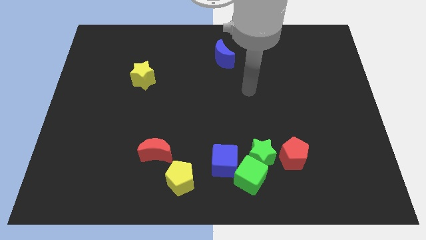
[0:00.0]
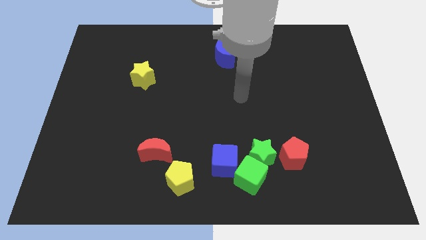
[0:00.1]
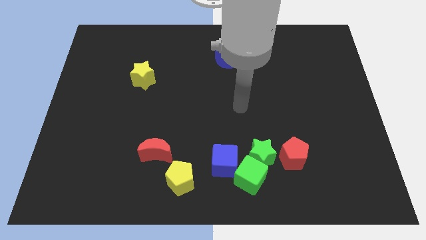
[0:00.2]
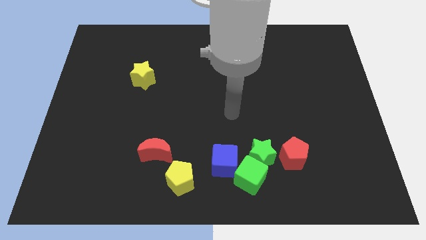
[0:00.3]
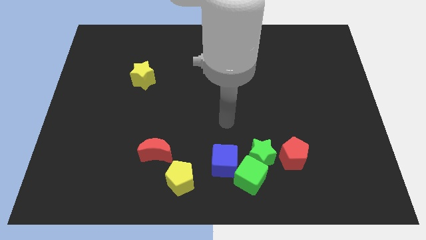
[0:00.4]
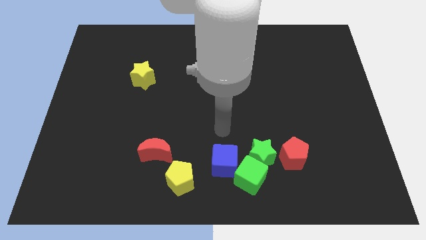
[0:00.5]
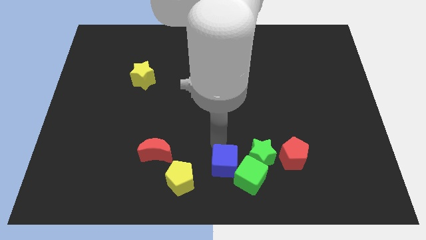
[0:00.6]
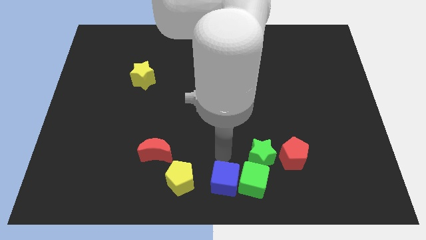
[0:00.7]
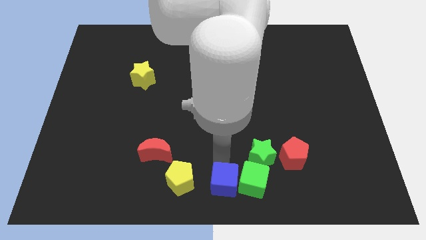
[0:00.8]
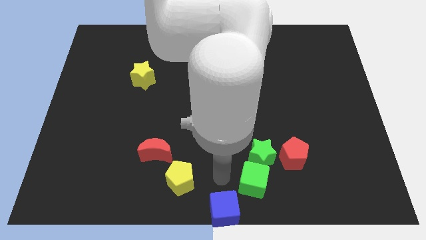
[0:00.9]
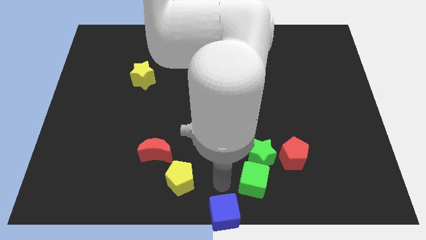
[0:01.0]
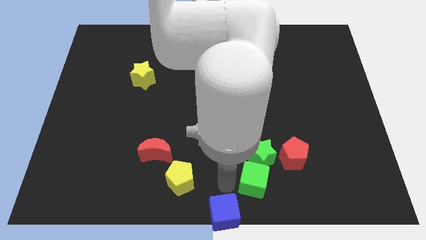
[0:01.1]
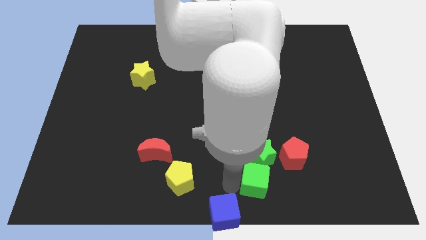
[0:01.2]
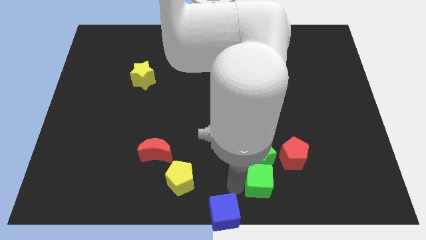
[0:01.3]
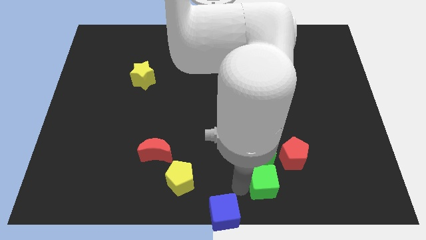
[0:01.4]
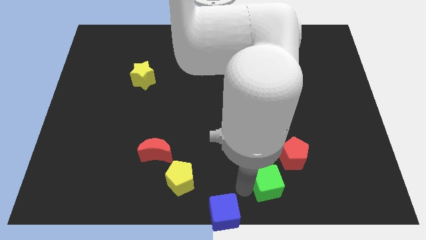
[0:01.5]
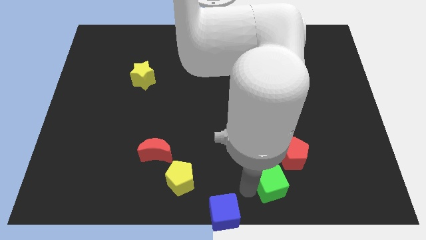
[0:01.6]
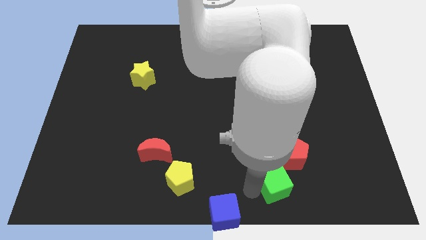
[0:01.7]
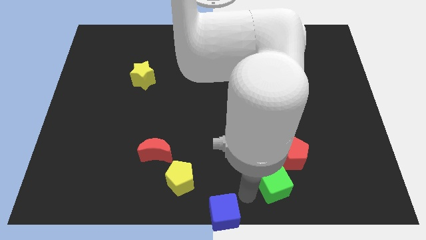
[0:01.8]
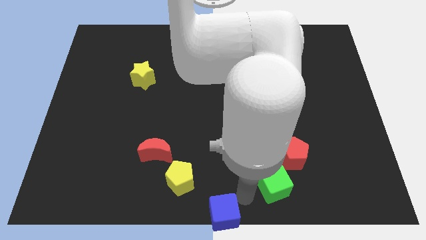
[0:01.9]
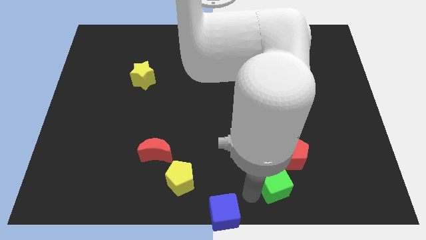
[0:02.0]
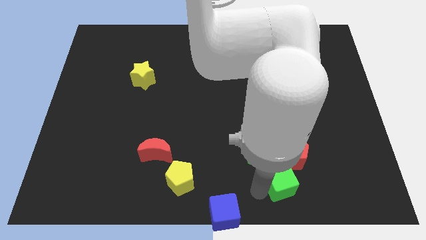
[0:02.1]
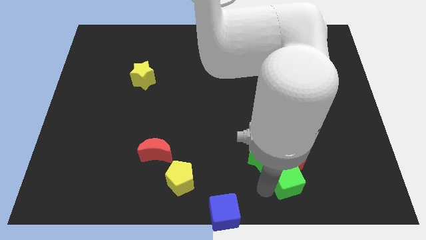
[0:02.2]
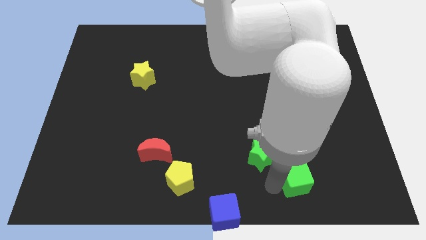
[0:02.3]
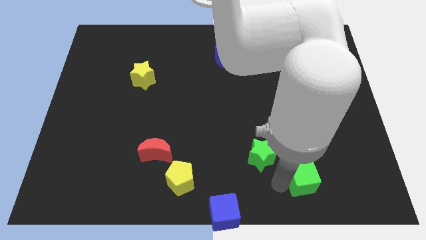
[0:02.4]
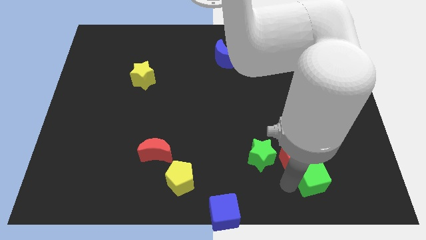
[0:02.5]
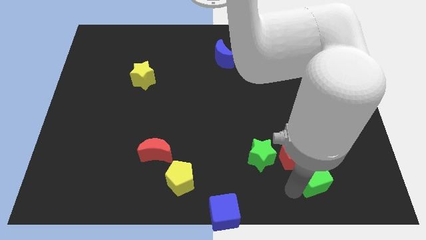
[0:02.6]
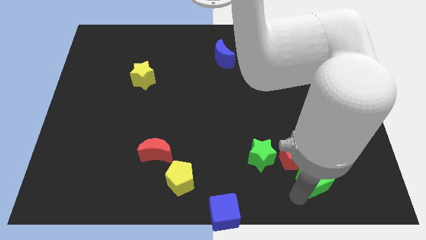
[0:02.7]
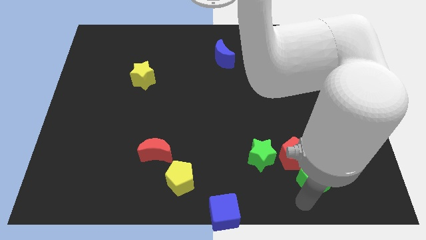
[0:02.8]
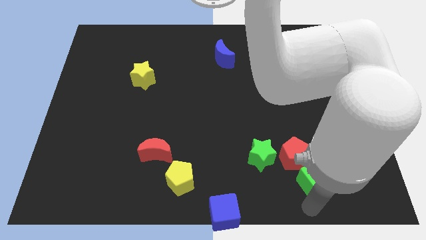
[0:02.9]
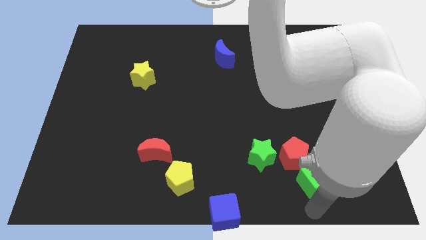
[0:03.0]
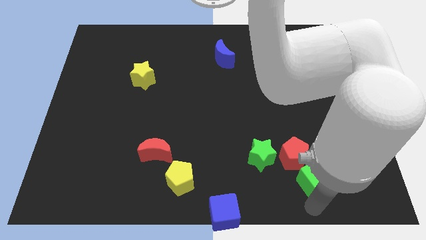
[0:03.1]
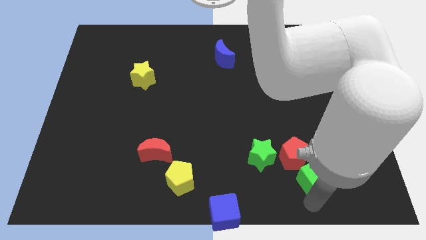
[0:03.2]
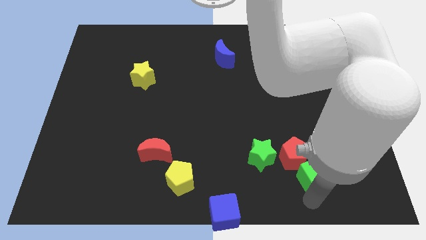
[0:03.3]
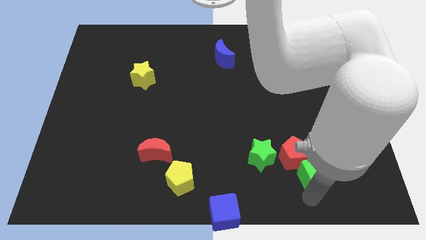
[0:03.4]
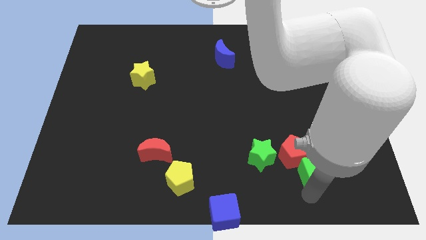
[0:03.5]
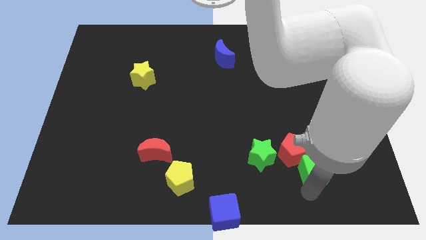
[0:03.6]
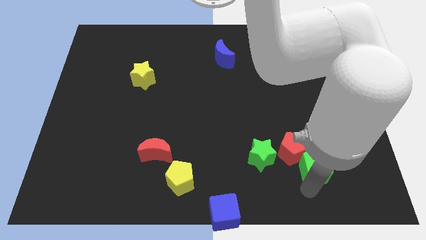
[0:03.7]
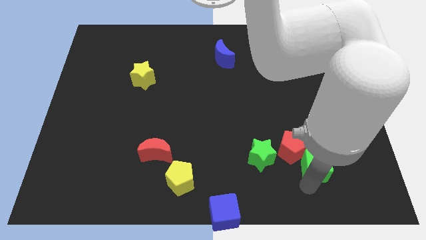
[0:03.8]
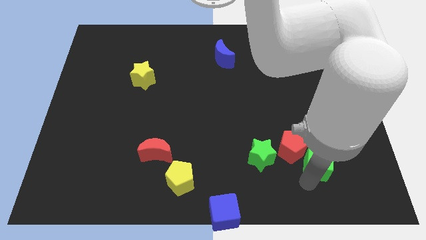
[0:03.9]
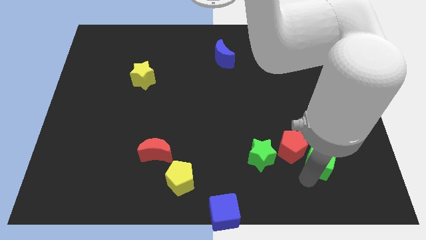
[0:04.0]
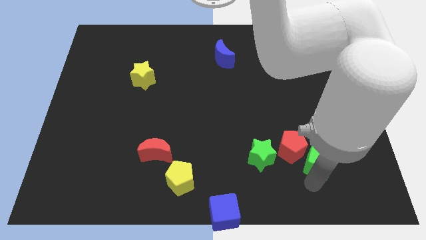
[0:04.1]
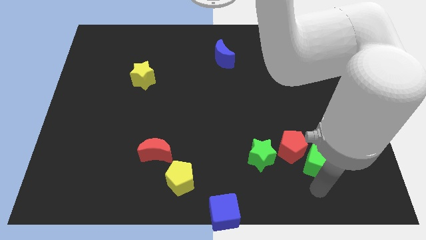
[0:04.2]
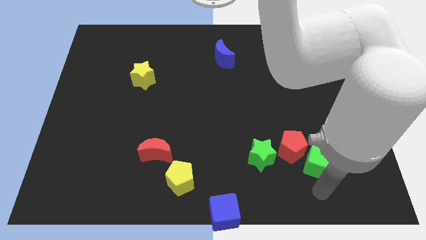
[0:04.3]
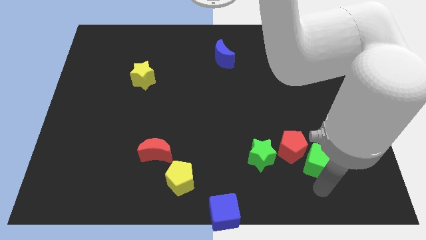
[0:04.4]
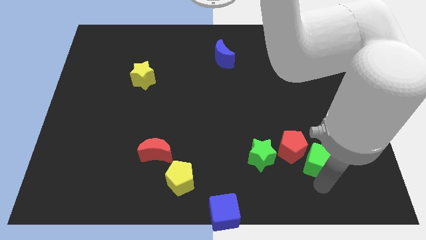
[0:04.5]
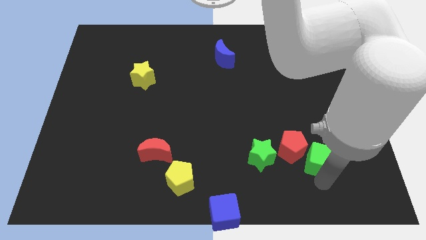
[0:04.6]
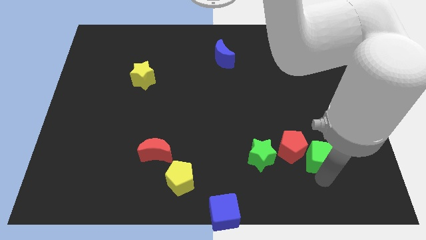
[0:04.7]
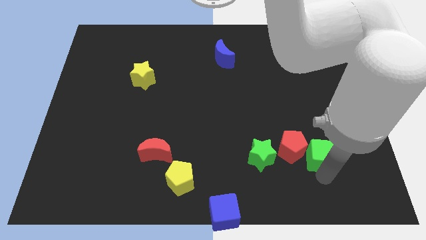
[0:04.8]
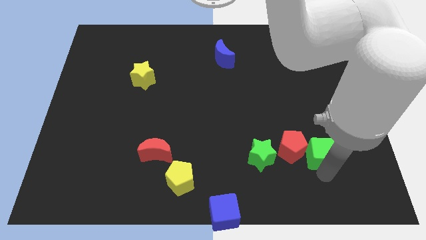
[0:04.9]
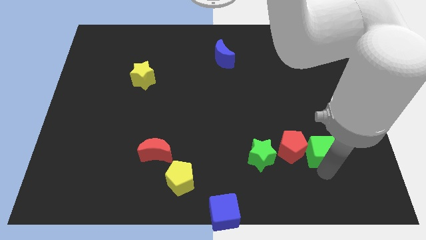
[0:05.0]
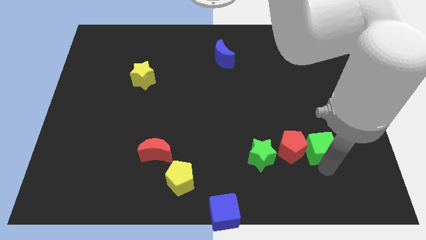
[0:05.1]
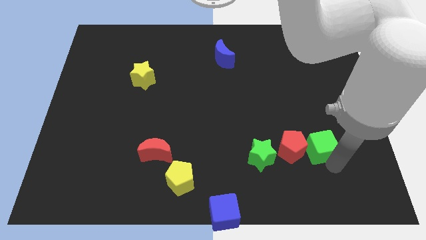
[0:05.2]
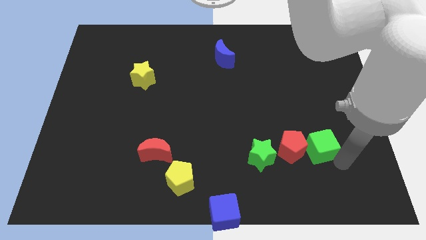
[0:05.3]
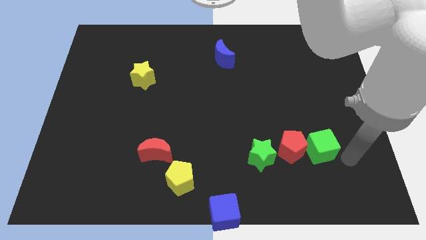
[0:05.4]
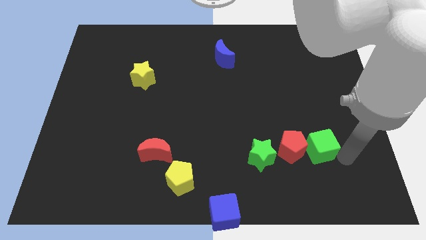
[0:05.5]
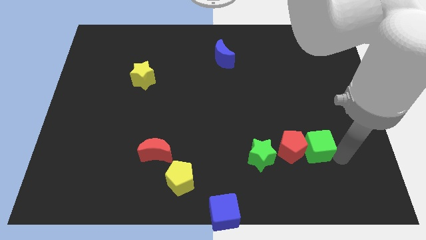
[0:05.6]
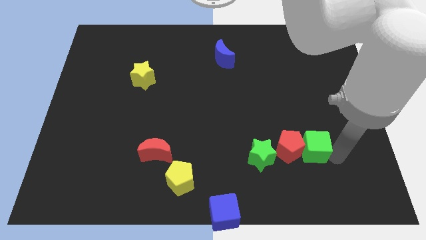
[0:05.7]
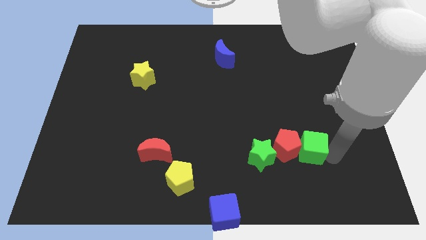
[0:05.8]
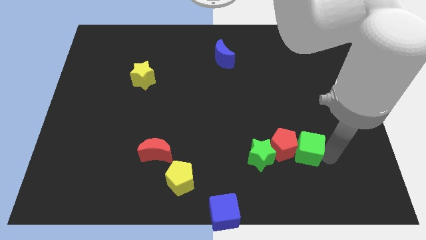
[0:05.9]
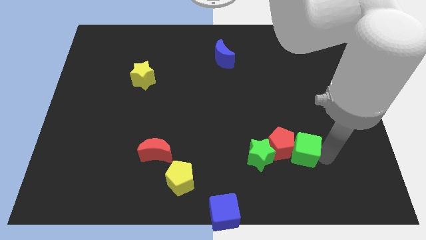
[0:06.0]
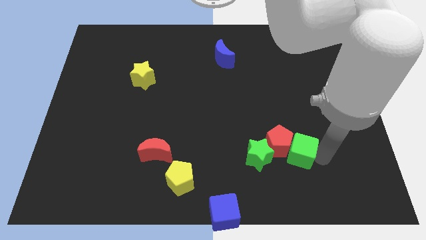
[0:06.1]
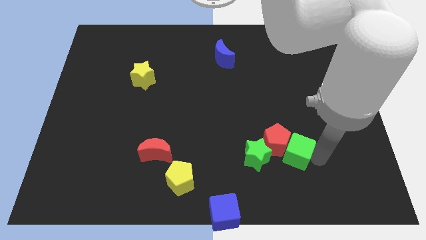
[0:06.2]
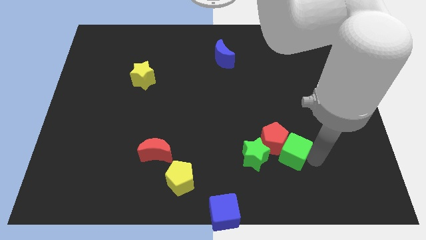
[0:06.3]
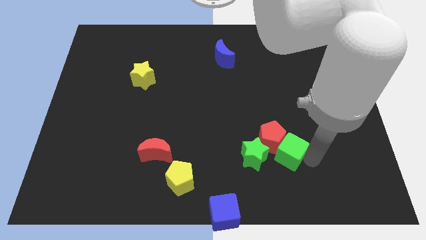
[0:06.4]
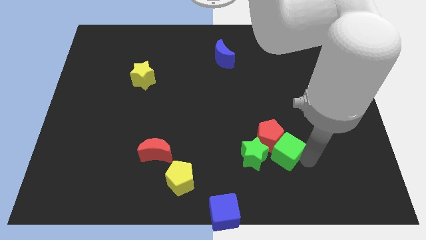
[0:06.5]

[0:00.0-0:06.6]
slide the green cube diagonally up and to the right of the green star

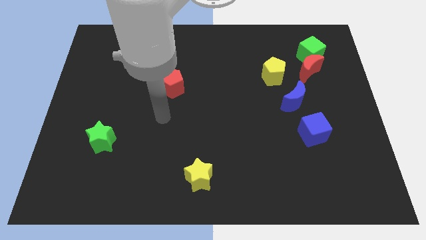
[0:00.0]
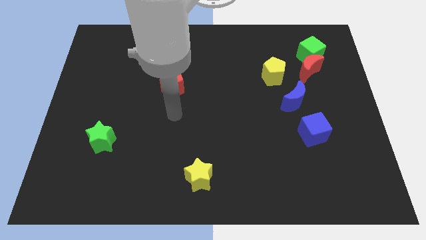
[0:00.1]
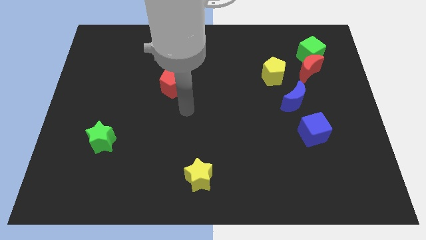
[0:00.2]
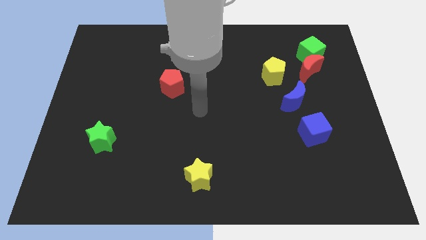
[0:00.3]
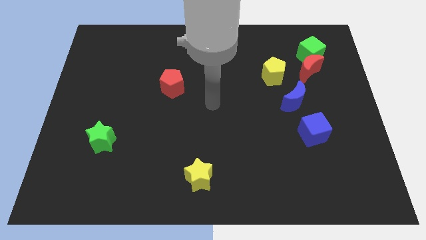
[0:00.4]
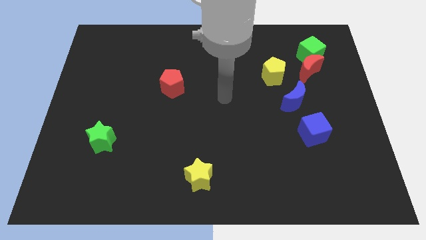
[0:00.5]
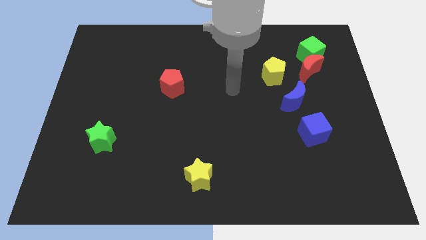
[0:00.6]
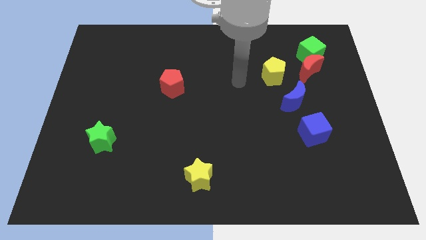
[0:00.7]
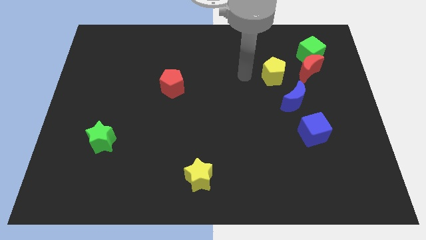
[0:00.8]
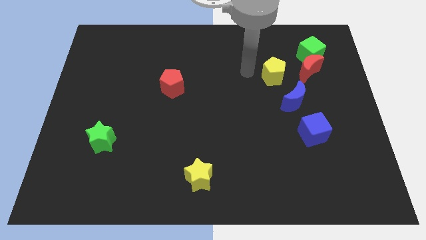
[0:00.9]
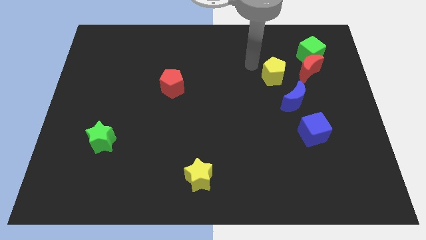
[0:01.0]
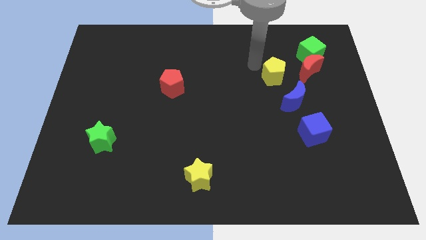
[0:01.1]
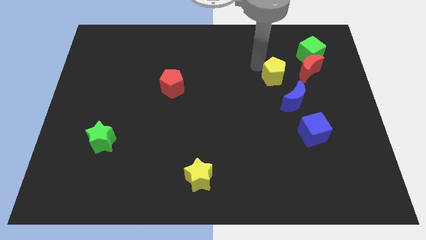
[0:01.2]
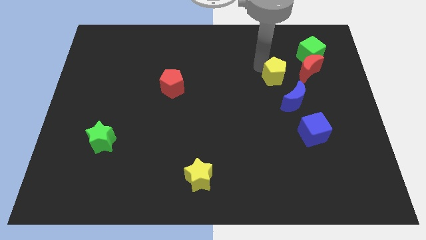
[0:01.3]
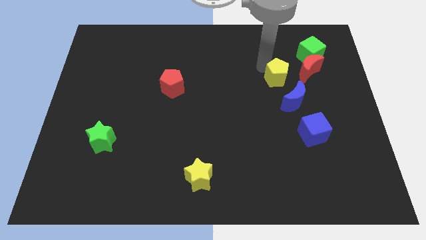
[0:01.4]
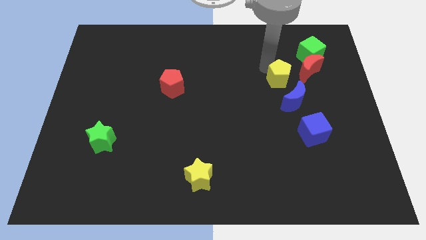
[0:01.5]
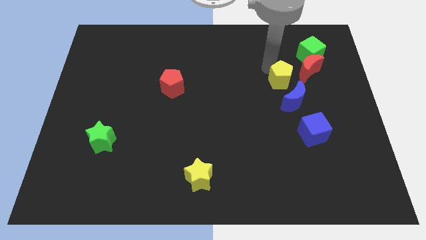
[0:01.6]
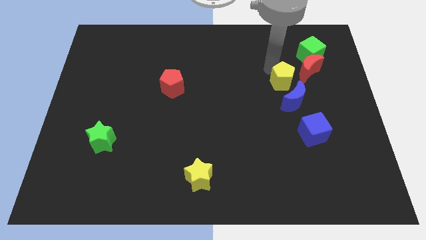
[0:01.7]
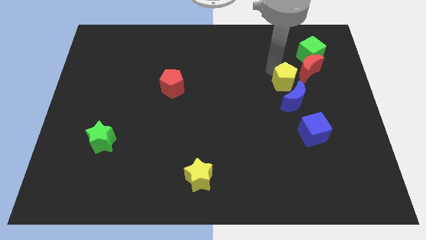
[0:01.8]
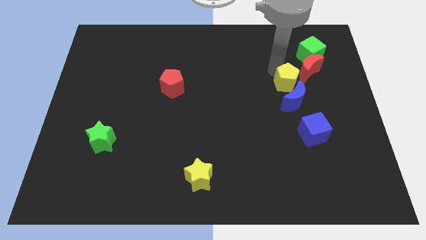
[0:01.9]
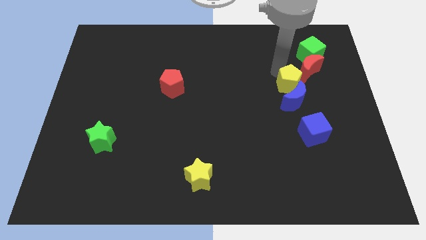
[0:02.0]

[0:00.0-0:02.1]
move the yellow pentagon to the top side of the blue cube
